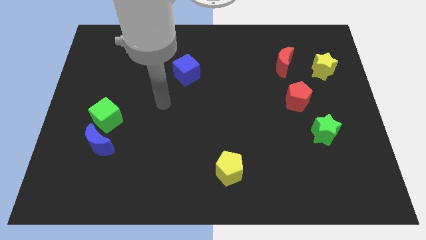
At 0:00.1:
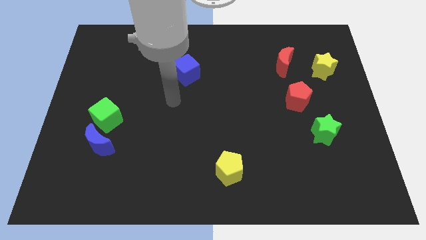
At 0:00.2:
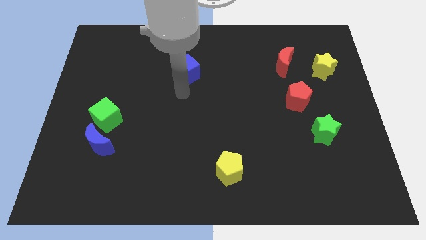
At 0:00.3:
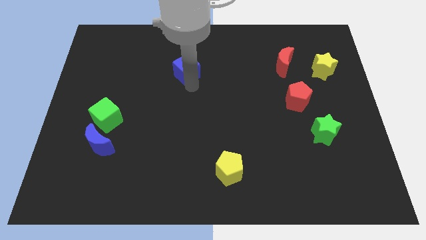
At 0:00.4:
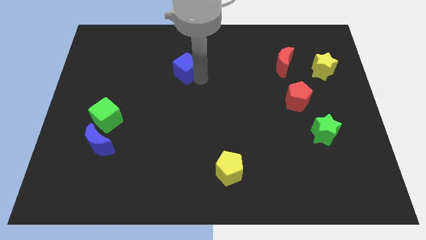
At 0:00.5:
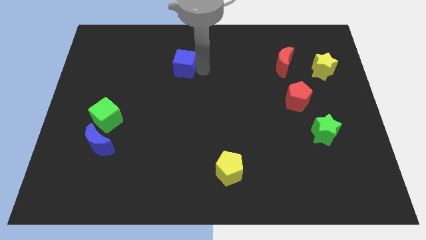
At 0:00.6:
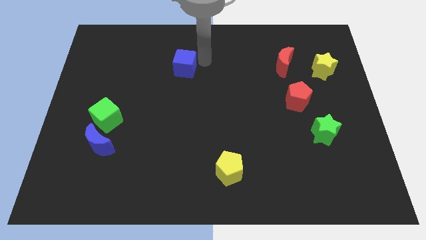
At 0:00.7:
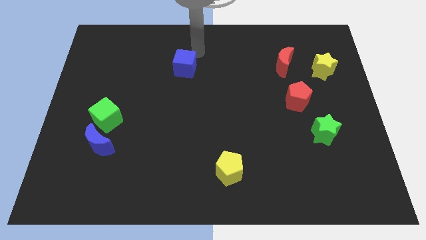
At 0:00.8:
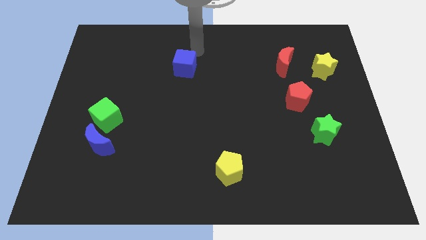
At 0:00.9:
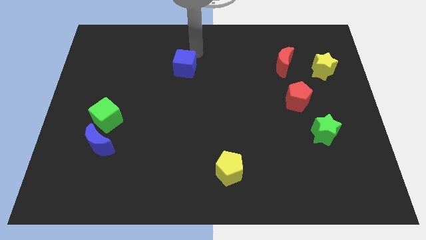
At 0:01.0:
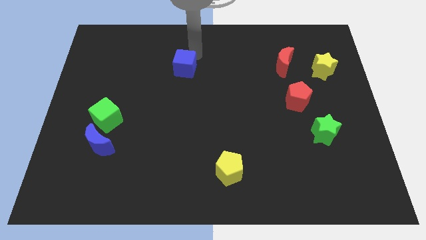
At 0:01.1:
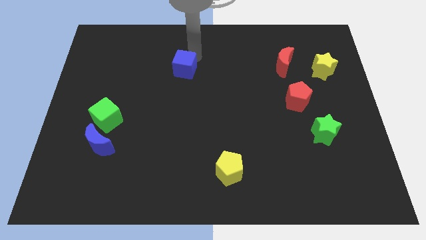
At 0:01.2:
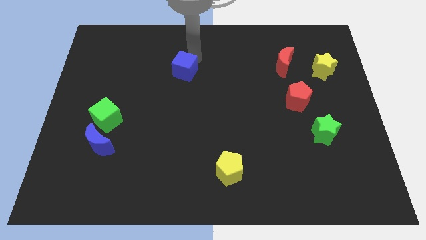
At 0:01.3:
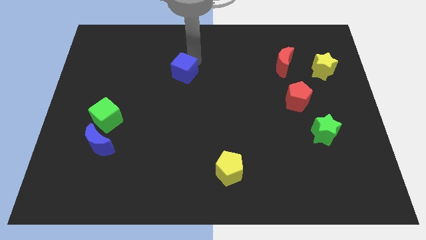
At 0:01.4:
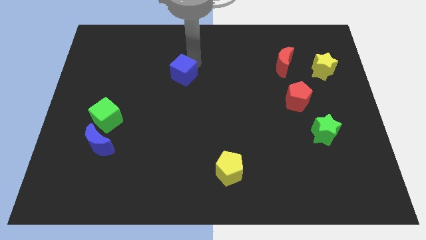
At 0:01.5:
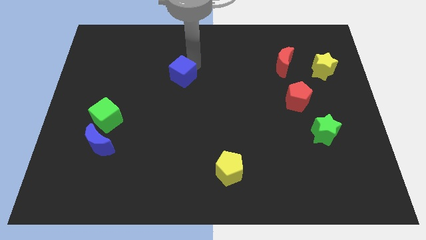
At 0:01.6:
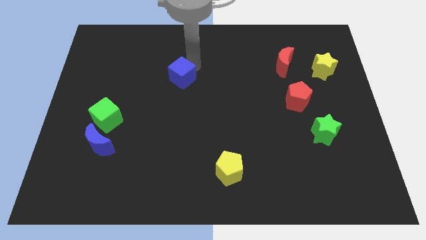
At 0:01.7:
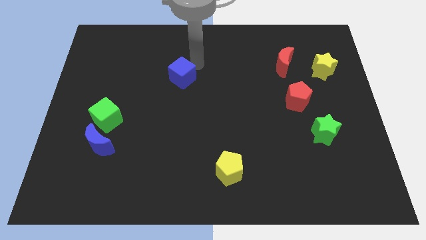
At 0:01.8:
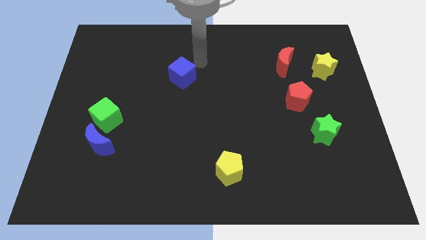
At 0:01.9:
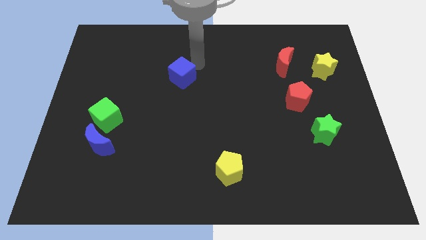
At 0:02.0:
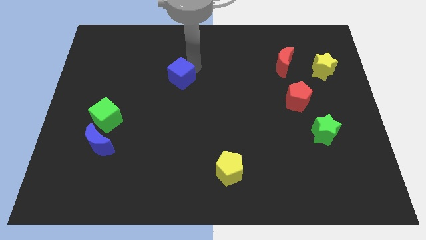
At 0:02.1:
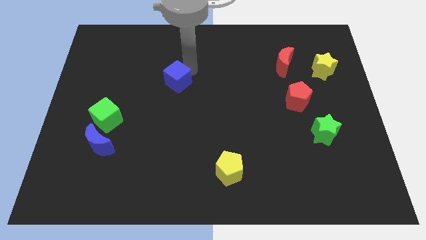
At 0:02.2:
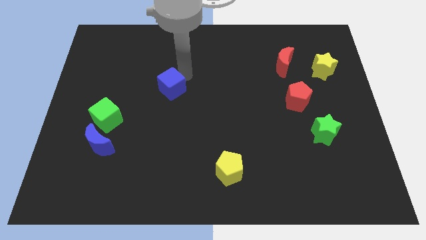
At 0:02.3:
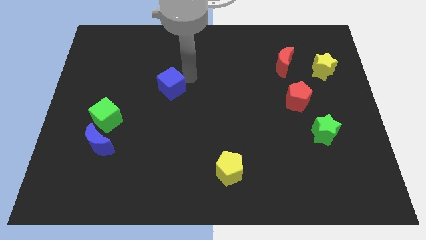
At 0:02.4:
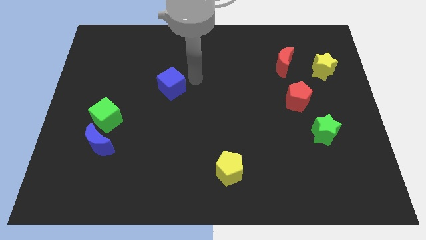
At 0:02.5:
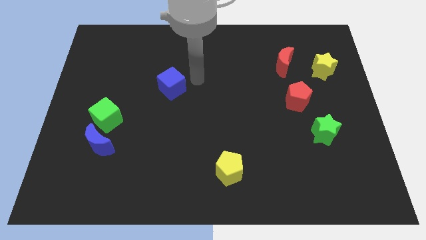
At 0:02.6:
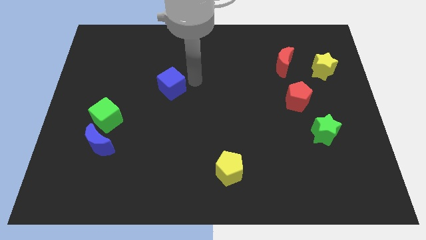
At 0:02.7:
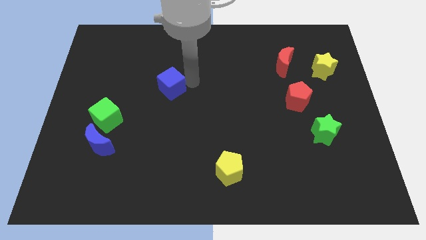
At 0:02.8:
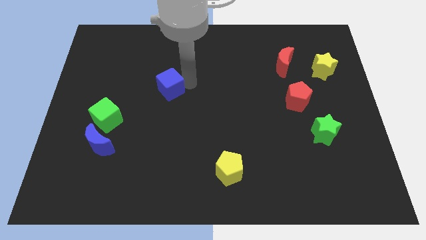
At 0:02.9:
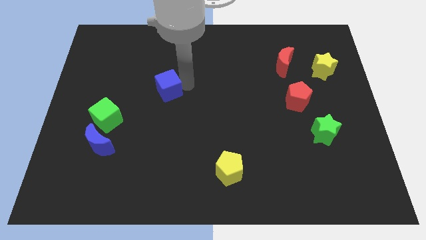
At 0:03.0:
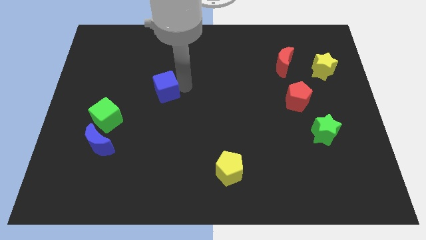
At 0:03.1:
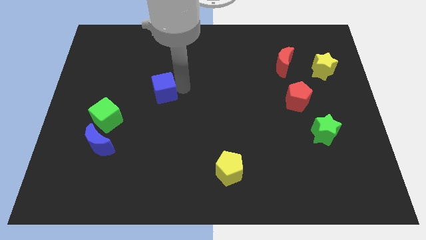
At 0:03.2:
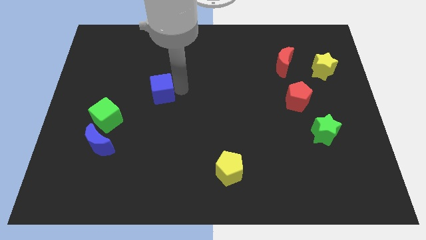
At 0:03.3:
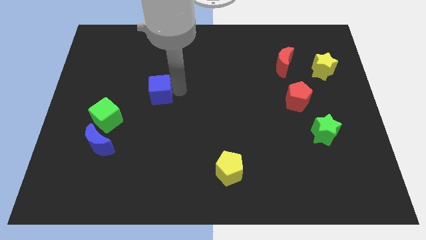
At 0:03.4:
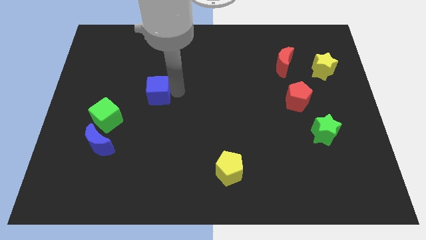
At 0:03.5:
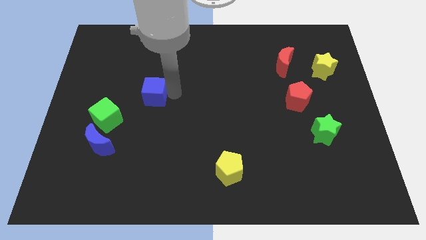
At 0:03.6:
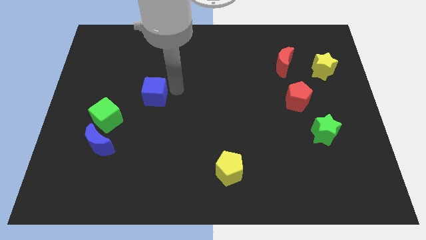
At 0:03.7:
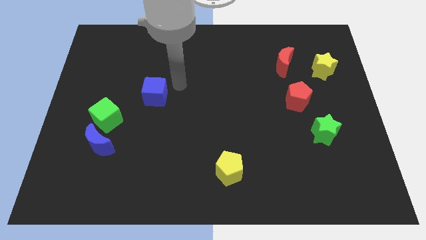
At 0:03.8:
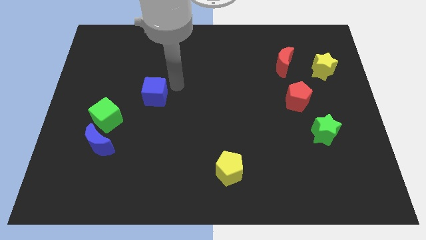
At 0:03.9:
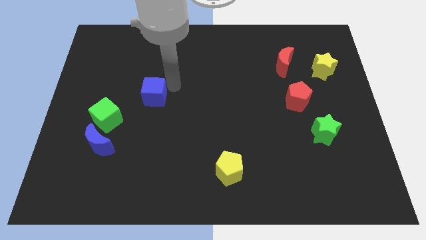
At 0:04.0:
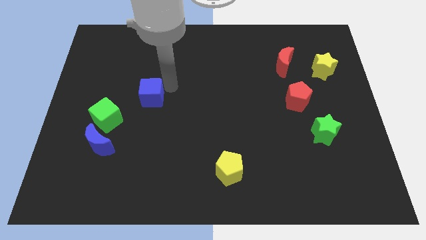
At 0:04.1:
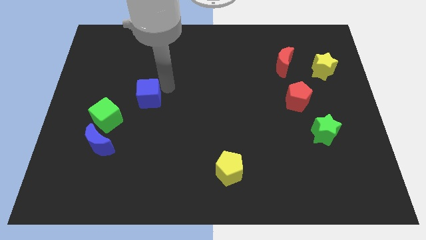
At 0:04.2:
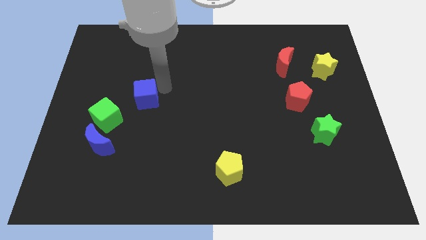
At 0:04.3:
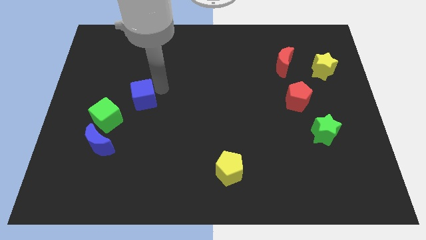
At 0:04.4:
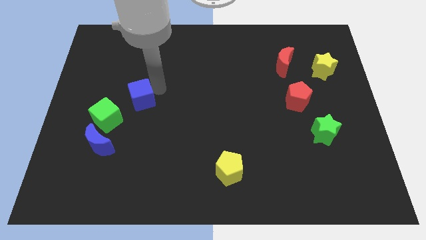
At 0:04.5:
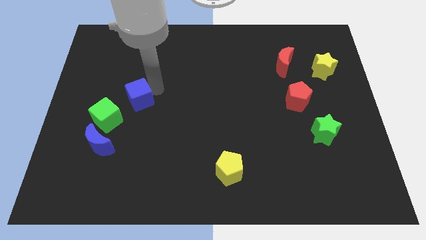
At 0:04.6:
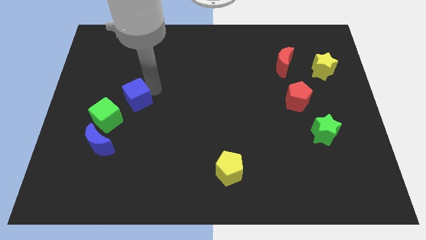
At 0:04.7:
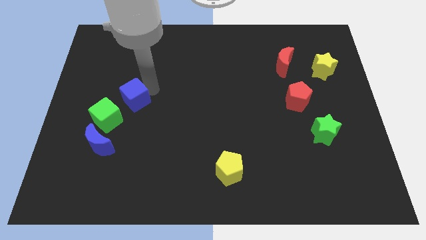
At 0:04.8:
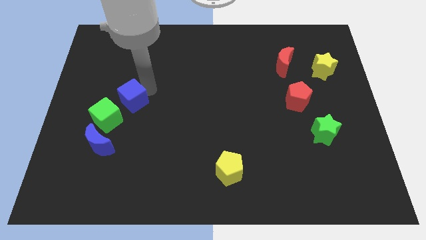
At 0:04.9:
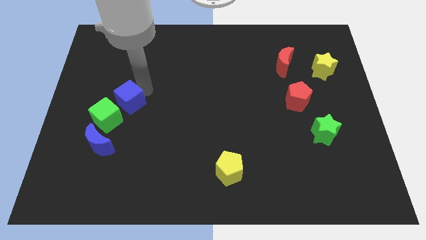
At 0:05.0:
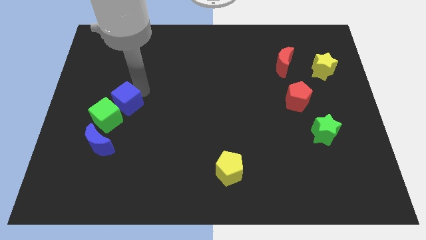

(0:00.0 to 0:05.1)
push the blue cube to the green cube

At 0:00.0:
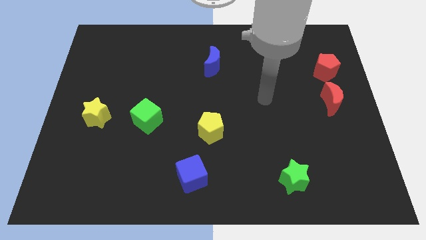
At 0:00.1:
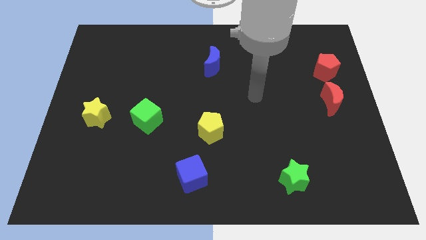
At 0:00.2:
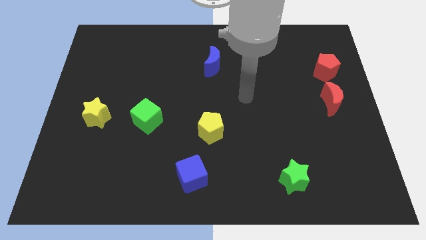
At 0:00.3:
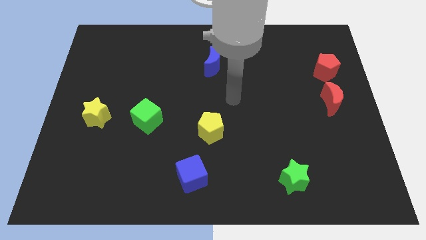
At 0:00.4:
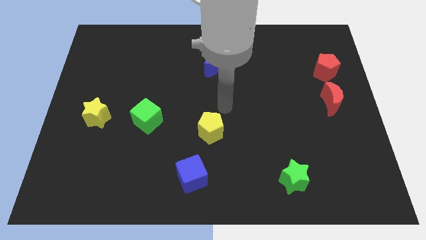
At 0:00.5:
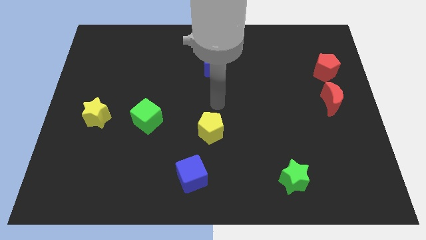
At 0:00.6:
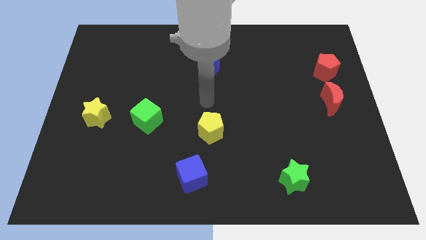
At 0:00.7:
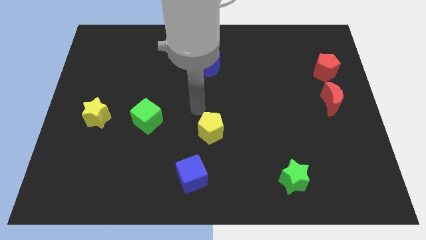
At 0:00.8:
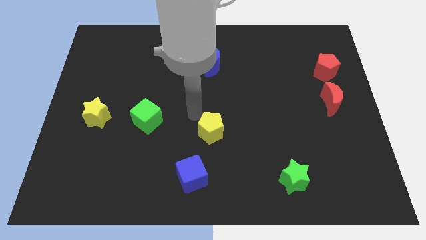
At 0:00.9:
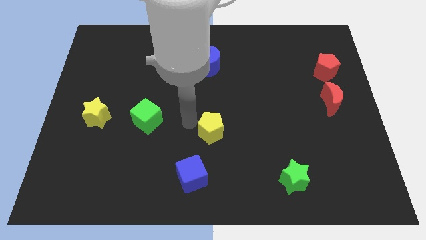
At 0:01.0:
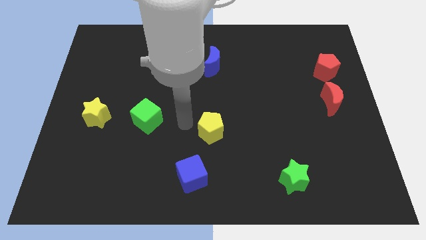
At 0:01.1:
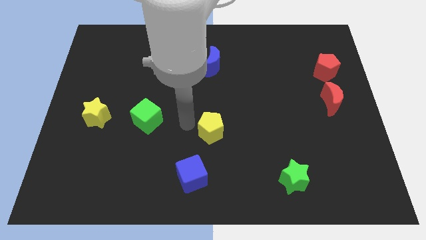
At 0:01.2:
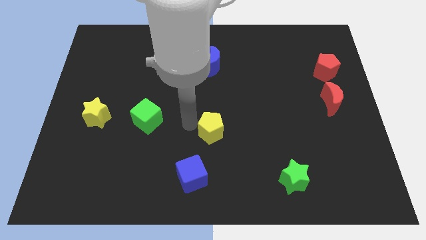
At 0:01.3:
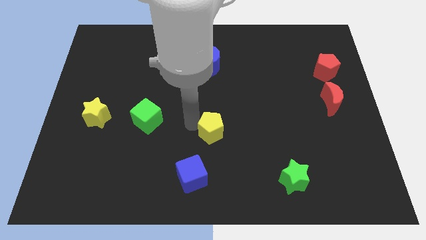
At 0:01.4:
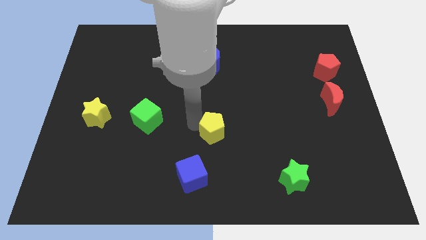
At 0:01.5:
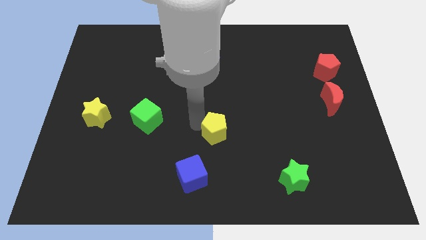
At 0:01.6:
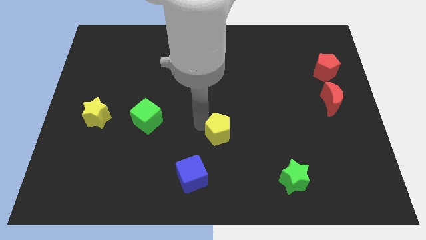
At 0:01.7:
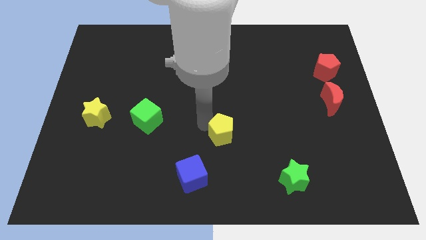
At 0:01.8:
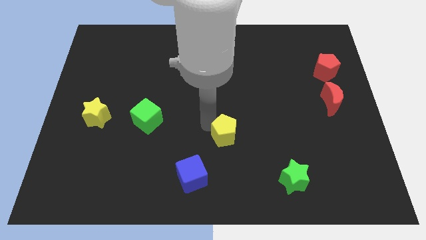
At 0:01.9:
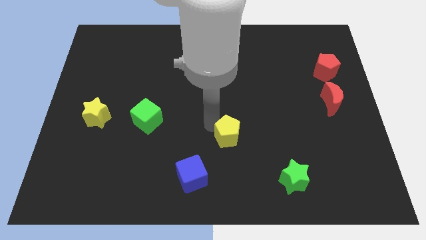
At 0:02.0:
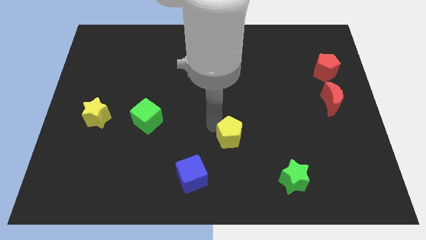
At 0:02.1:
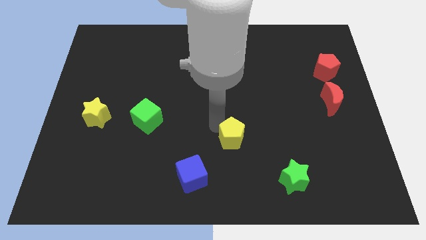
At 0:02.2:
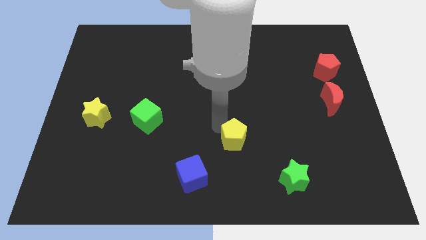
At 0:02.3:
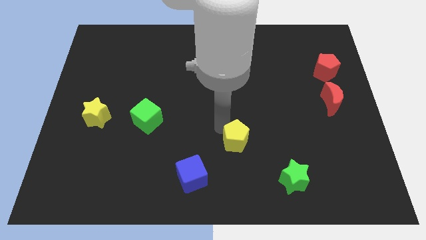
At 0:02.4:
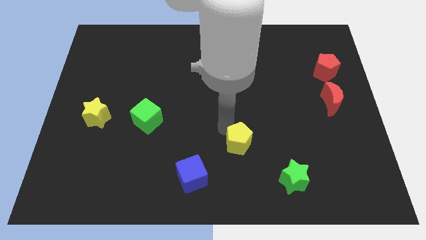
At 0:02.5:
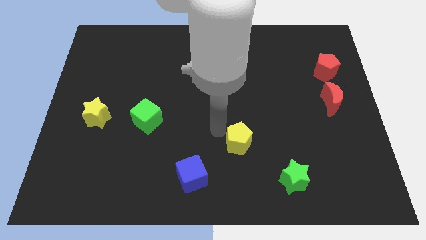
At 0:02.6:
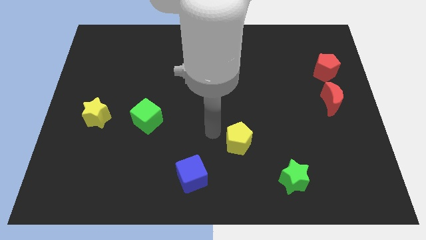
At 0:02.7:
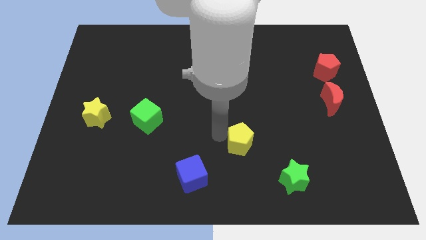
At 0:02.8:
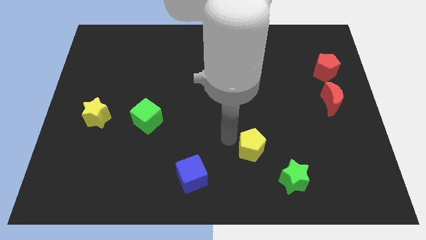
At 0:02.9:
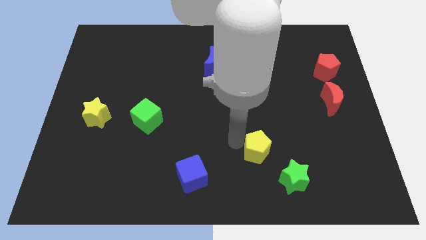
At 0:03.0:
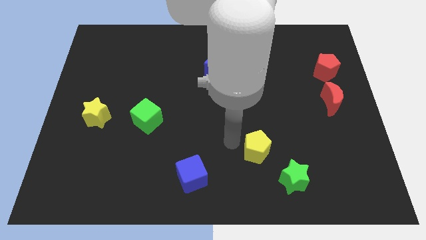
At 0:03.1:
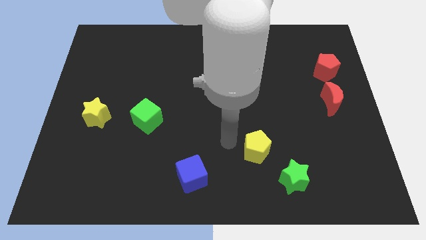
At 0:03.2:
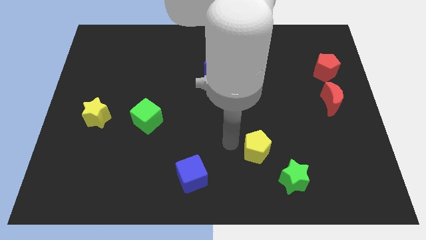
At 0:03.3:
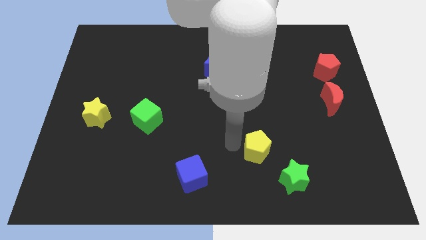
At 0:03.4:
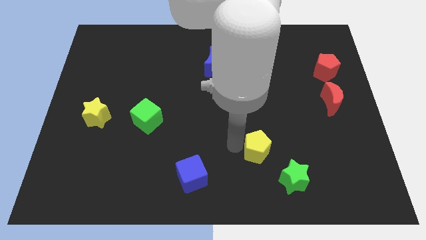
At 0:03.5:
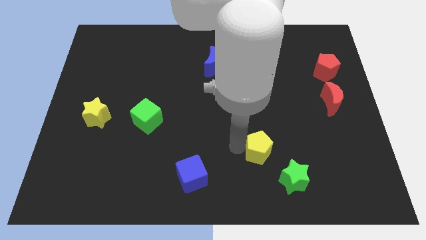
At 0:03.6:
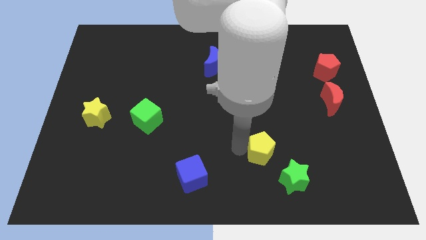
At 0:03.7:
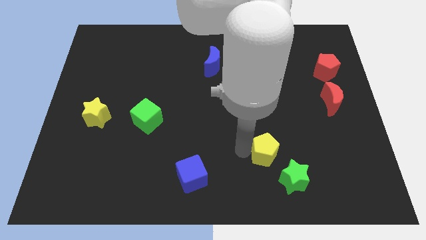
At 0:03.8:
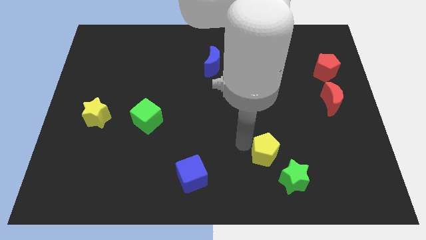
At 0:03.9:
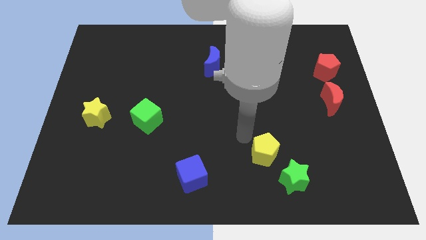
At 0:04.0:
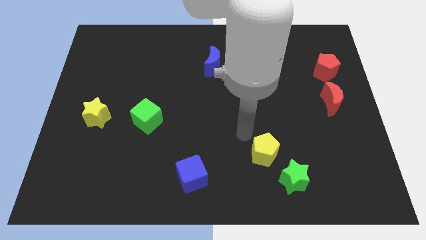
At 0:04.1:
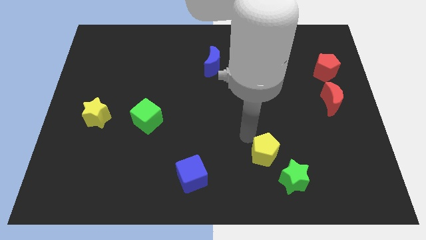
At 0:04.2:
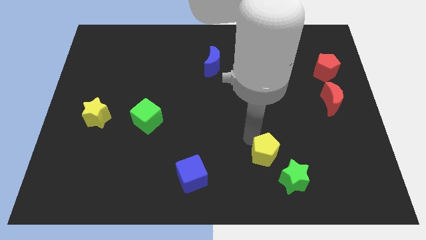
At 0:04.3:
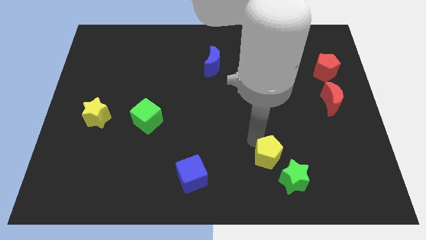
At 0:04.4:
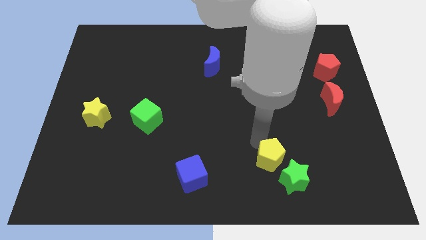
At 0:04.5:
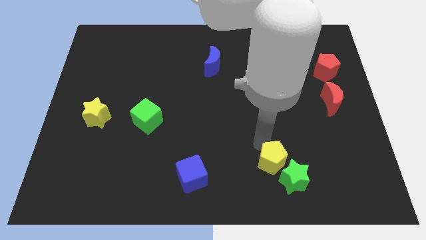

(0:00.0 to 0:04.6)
slide the yellow pentagon to the green star
